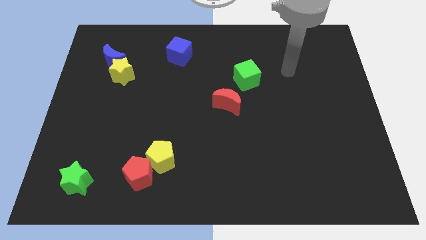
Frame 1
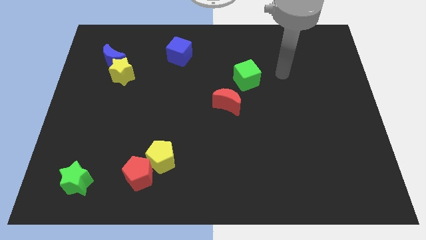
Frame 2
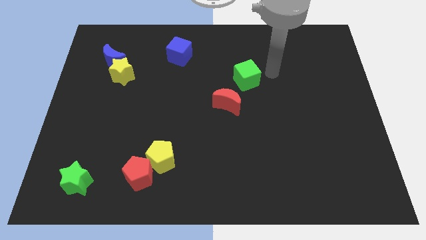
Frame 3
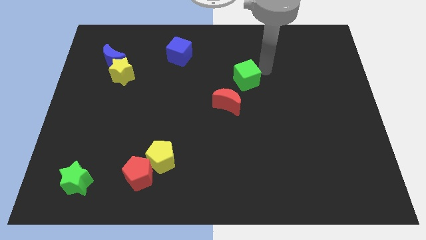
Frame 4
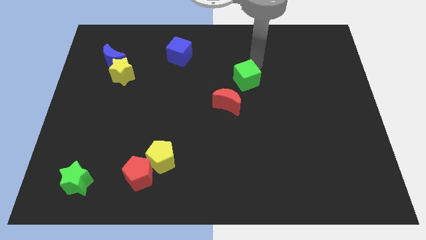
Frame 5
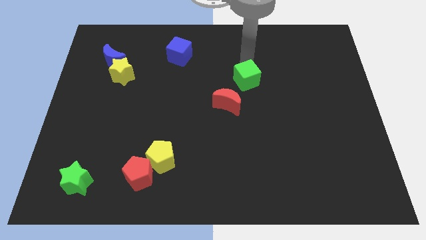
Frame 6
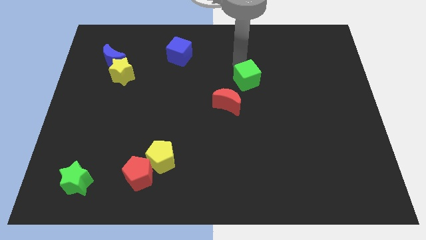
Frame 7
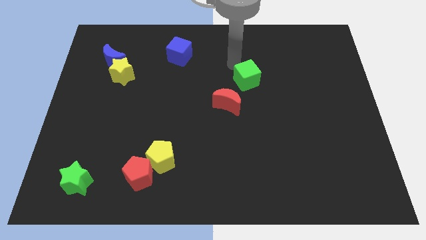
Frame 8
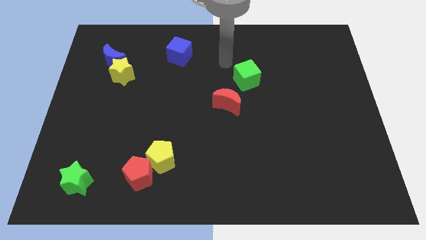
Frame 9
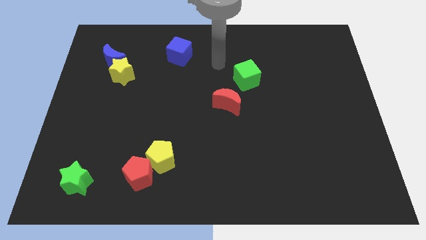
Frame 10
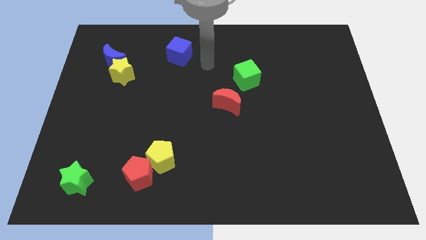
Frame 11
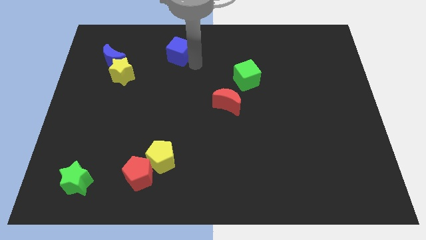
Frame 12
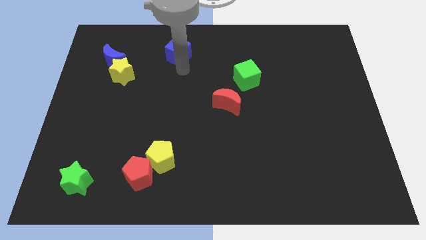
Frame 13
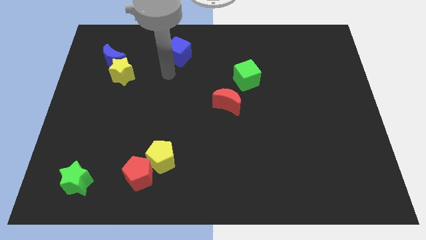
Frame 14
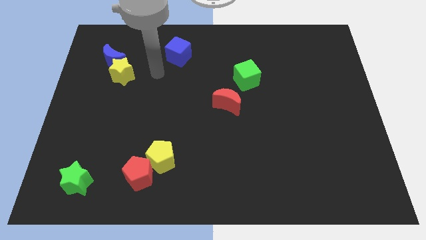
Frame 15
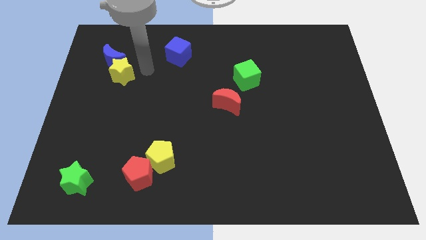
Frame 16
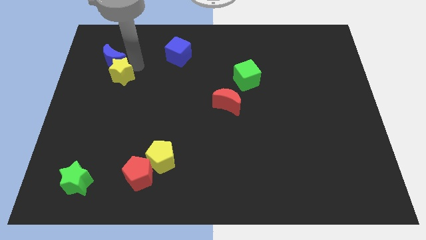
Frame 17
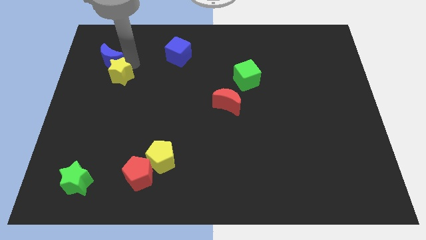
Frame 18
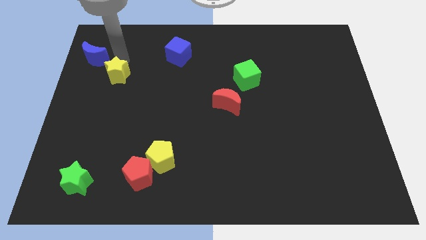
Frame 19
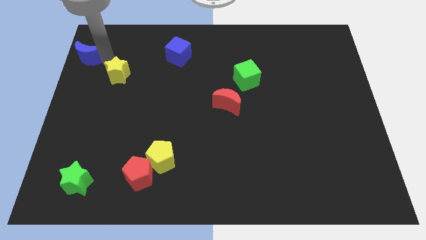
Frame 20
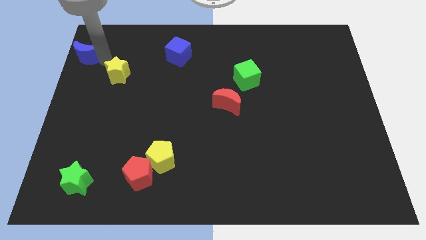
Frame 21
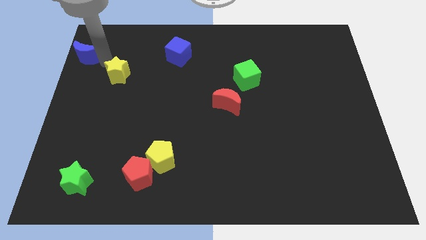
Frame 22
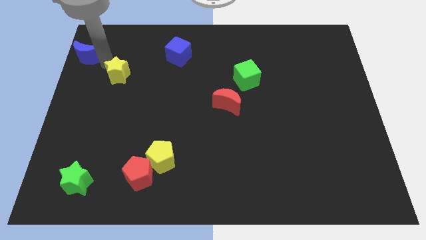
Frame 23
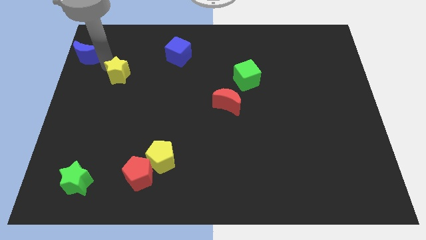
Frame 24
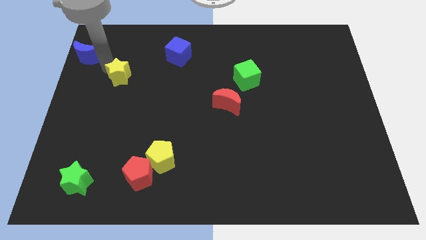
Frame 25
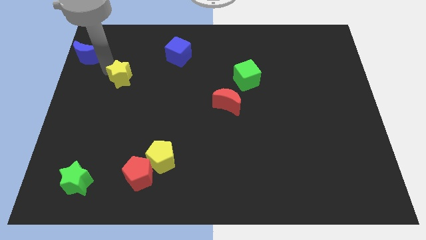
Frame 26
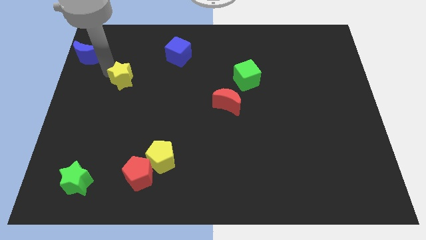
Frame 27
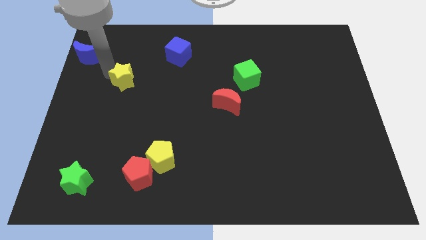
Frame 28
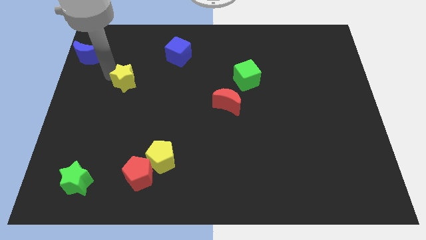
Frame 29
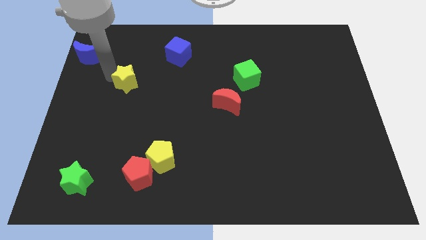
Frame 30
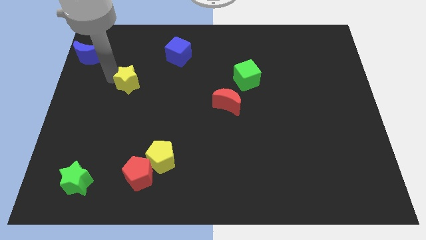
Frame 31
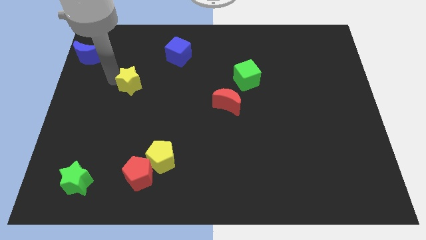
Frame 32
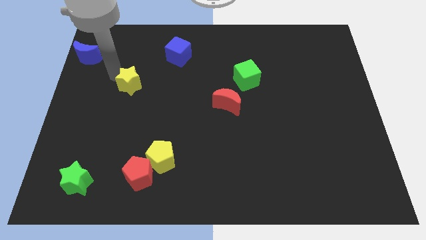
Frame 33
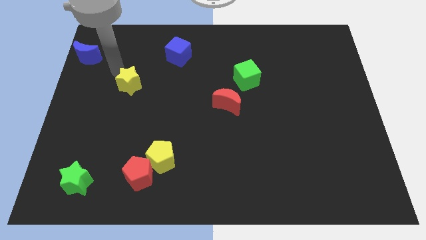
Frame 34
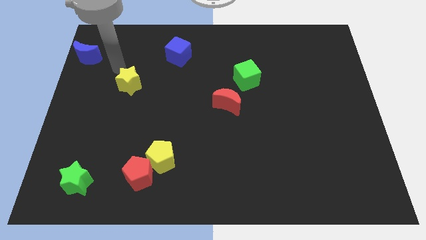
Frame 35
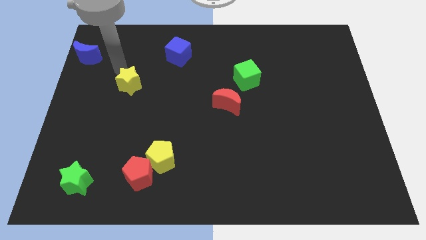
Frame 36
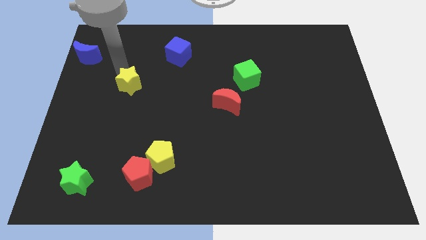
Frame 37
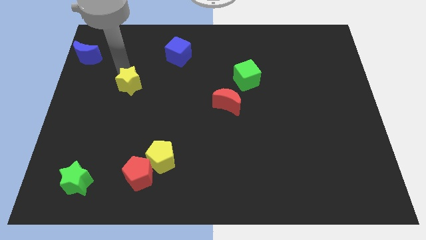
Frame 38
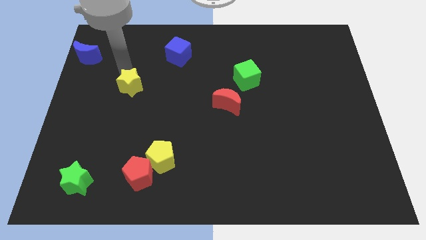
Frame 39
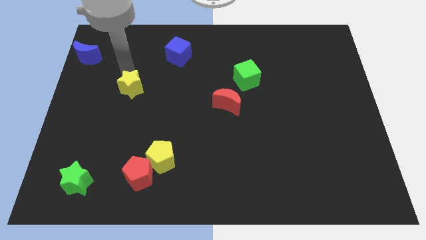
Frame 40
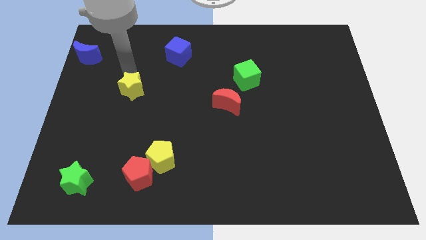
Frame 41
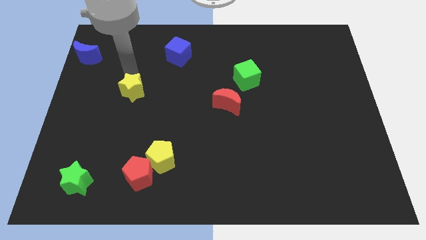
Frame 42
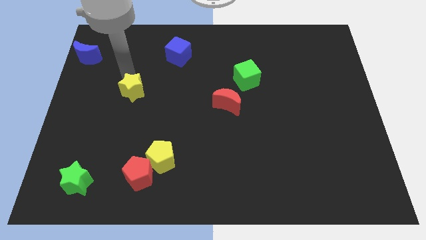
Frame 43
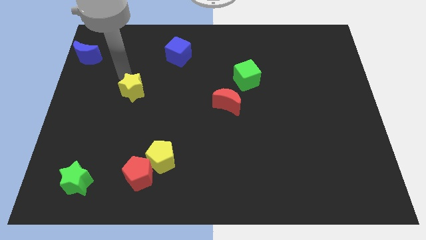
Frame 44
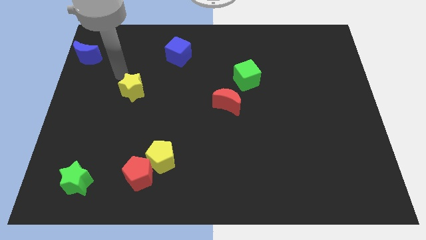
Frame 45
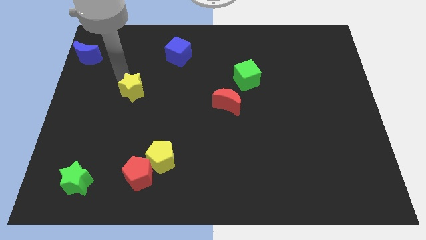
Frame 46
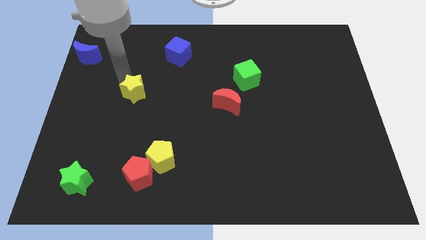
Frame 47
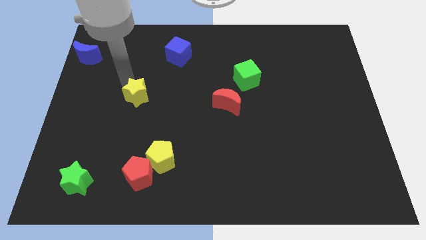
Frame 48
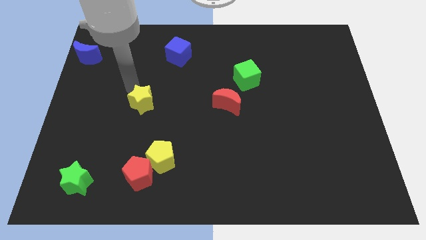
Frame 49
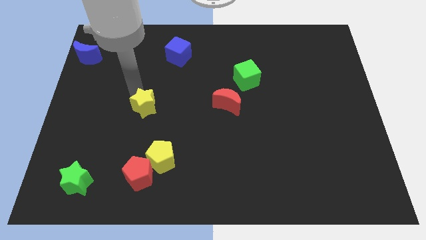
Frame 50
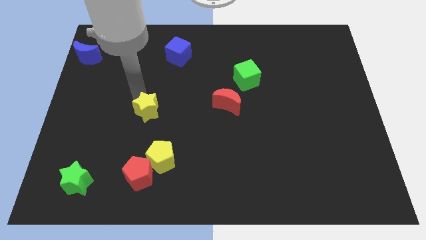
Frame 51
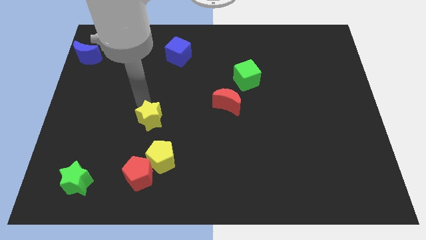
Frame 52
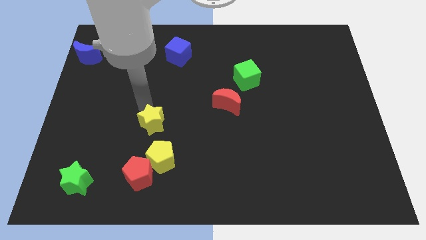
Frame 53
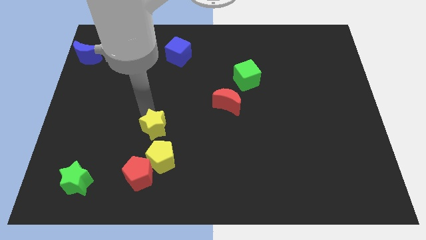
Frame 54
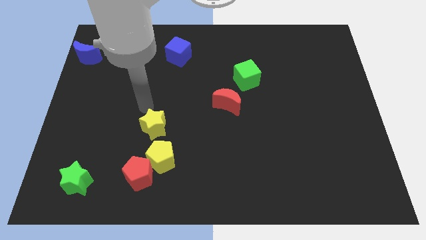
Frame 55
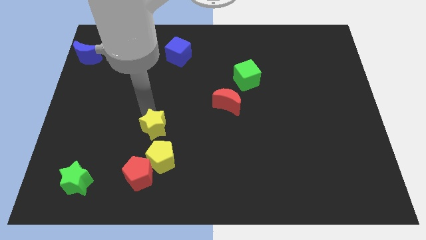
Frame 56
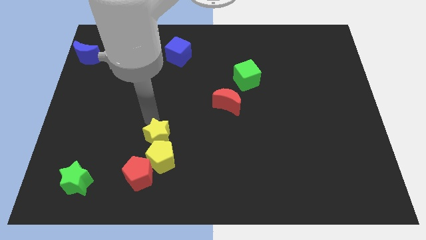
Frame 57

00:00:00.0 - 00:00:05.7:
slide the yellow star diagonally up and to the right of the red pentagon

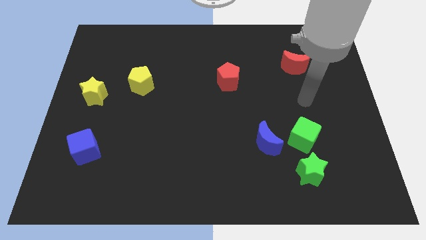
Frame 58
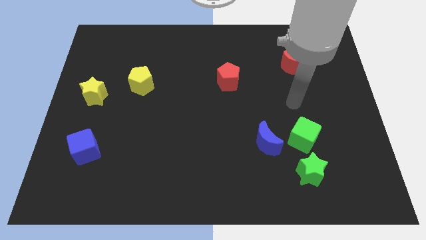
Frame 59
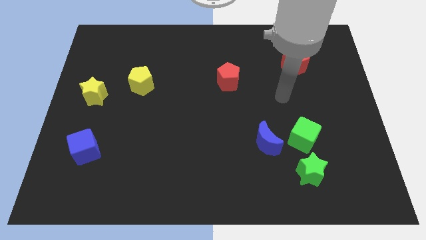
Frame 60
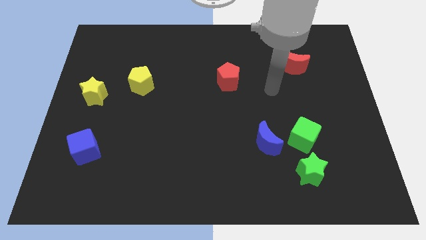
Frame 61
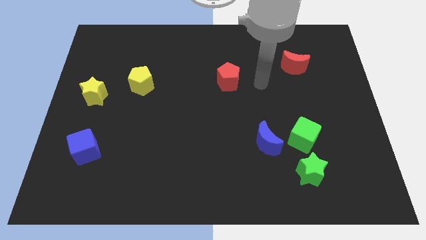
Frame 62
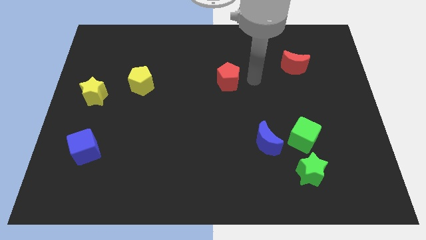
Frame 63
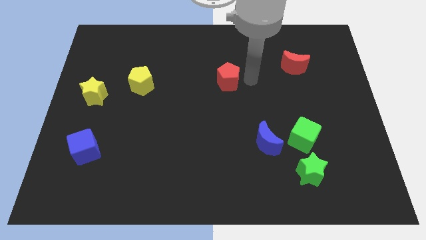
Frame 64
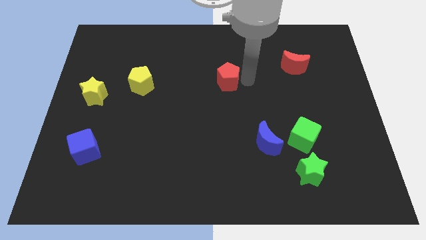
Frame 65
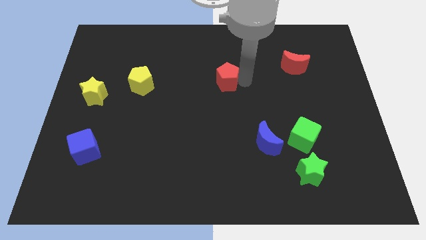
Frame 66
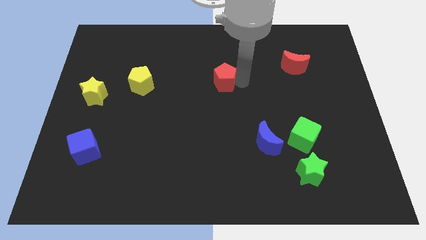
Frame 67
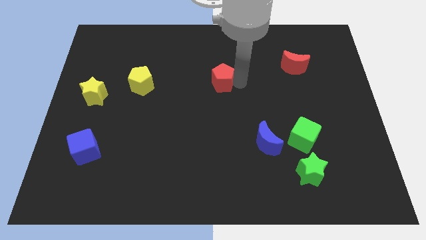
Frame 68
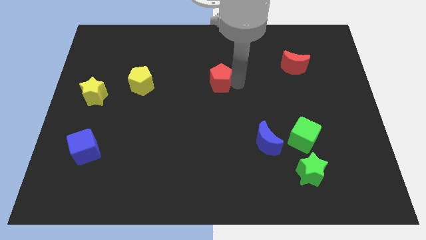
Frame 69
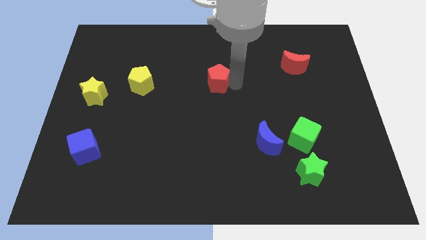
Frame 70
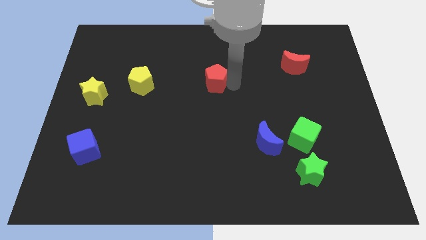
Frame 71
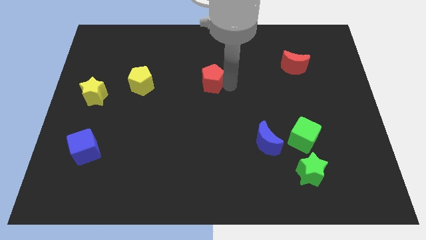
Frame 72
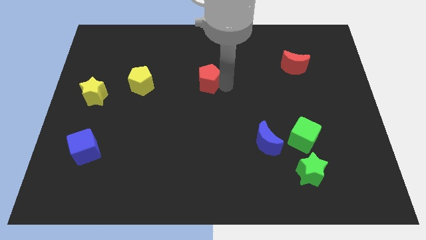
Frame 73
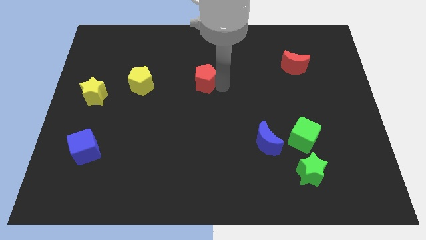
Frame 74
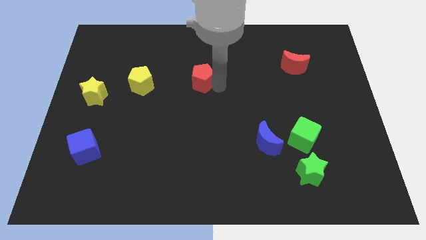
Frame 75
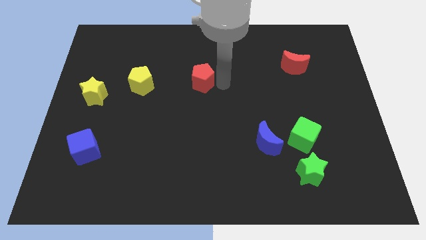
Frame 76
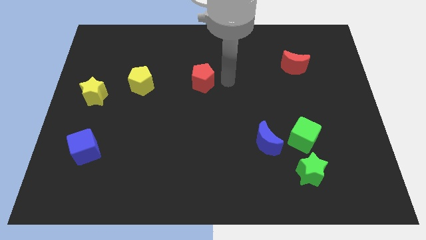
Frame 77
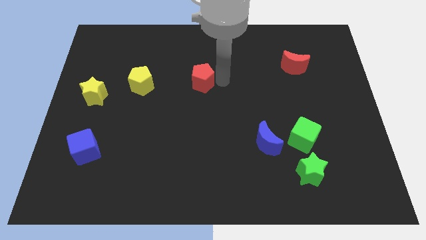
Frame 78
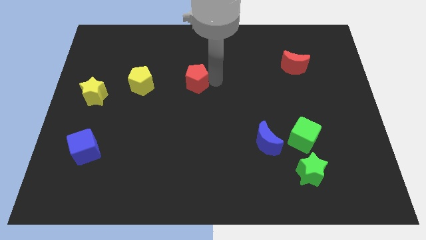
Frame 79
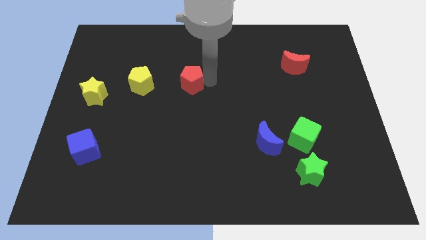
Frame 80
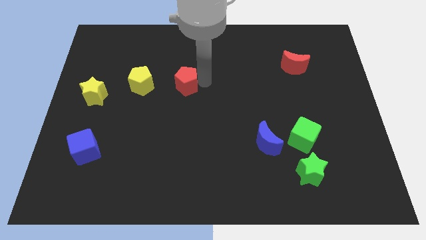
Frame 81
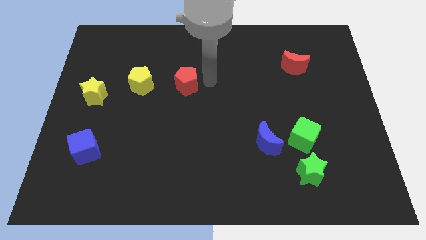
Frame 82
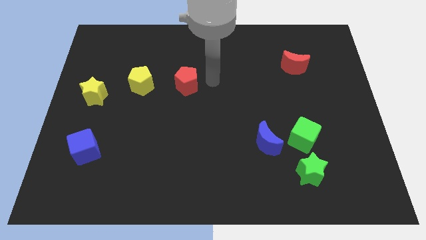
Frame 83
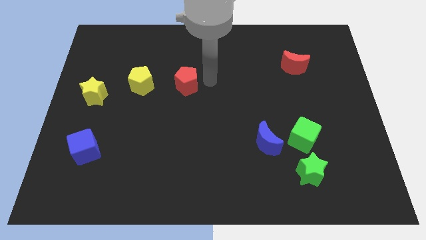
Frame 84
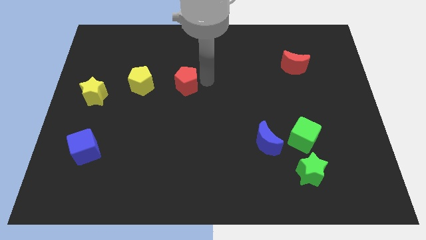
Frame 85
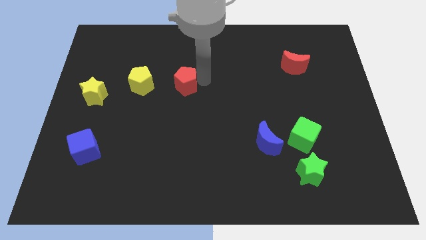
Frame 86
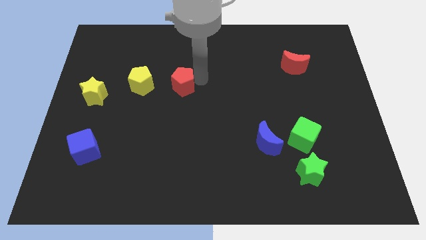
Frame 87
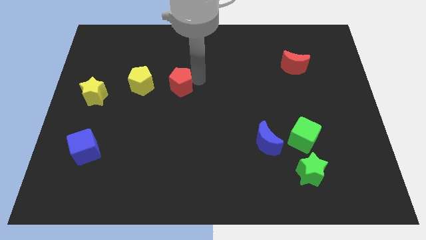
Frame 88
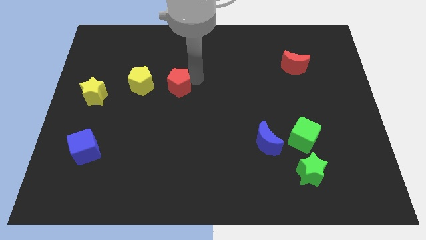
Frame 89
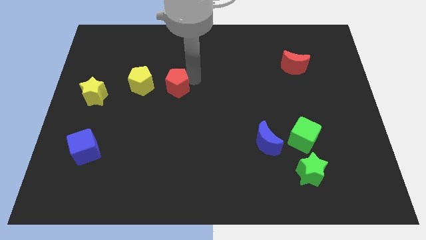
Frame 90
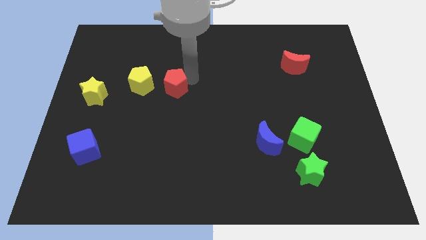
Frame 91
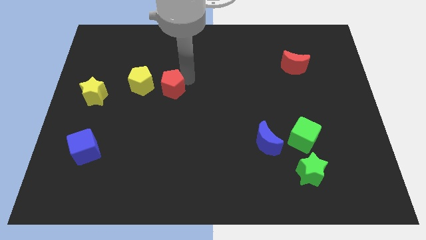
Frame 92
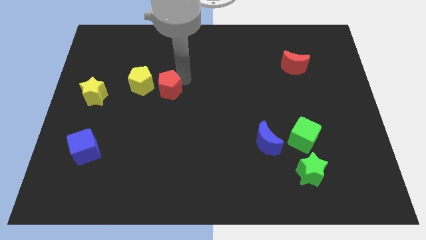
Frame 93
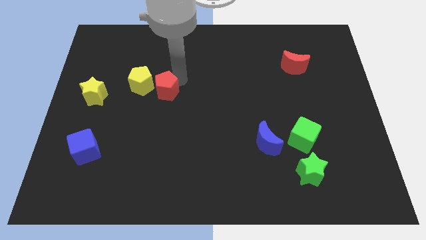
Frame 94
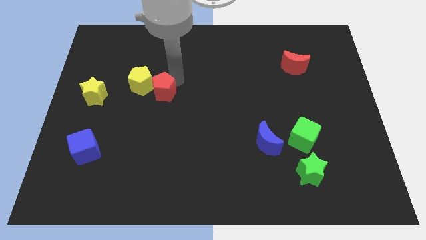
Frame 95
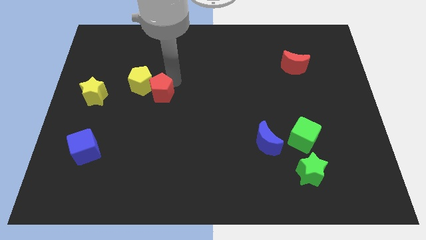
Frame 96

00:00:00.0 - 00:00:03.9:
push the red pentagon just right of the yellow star
